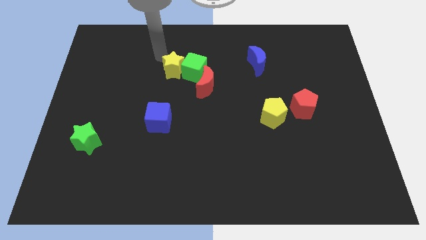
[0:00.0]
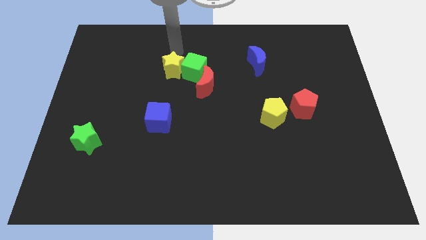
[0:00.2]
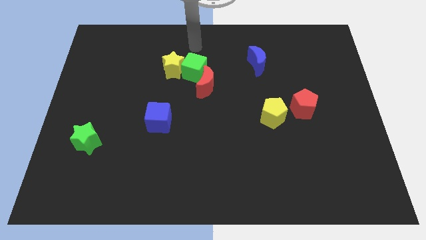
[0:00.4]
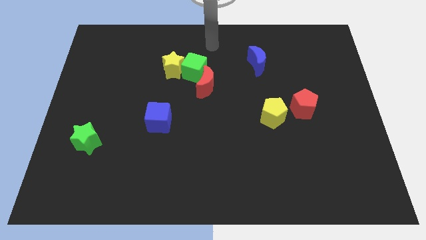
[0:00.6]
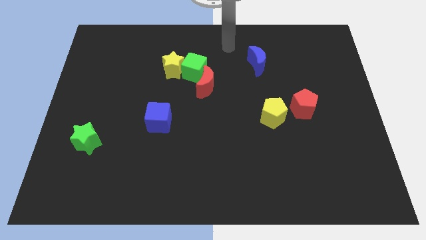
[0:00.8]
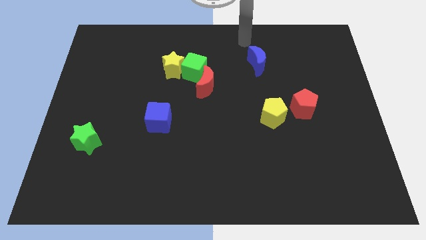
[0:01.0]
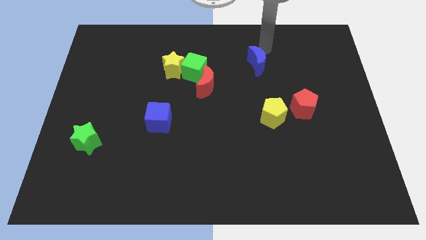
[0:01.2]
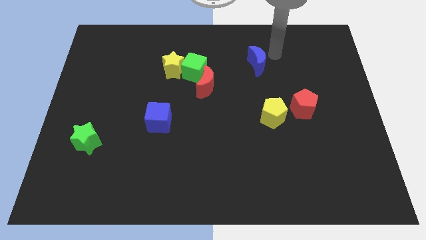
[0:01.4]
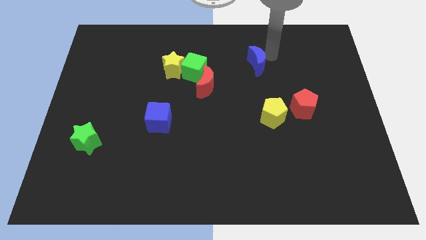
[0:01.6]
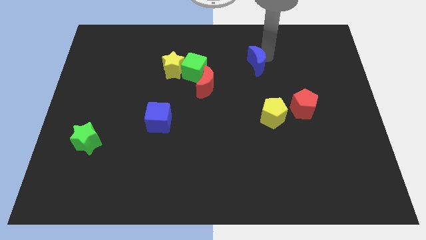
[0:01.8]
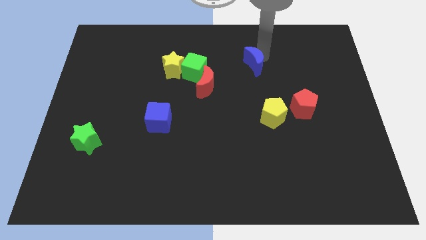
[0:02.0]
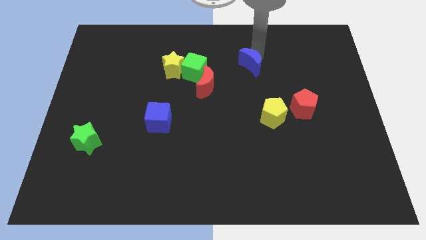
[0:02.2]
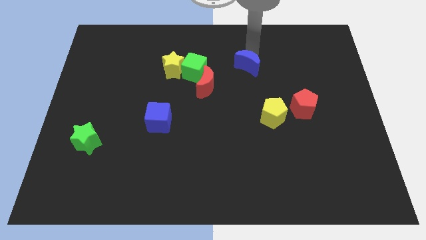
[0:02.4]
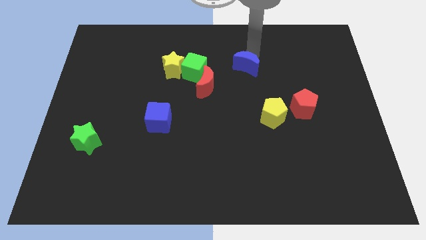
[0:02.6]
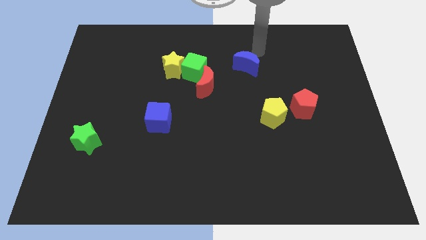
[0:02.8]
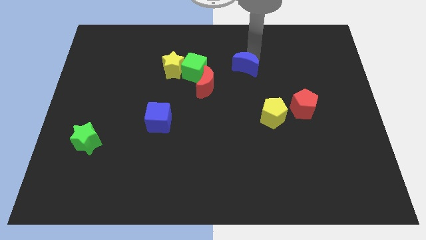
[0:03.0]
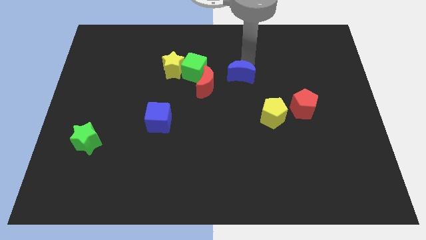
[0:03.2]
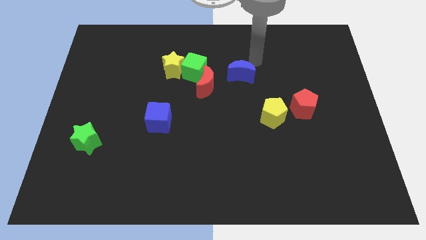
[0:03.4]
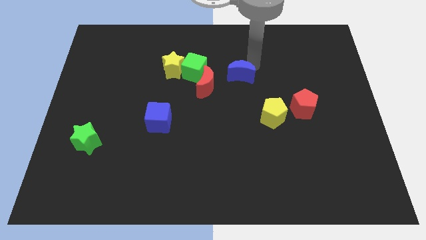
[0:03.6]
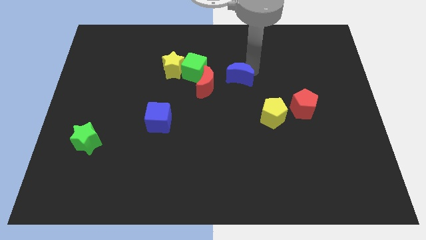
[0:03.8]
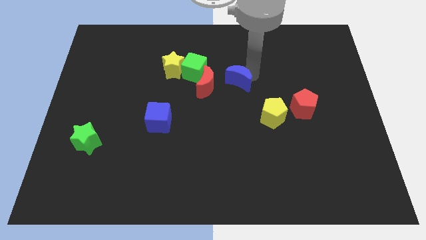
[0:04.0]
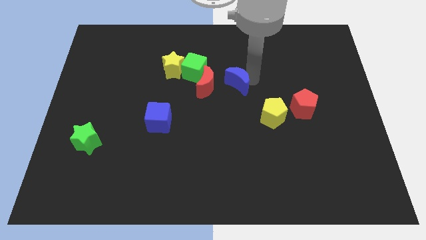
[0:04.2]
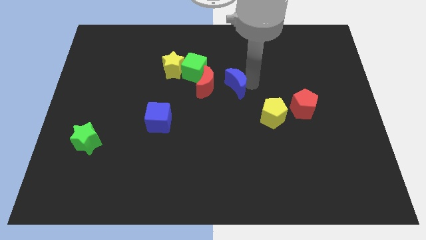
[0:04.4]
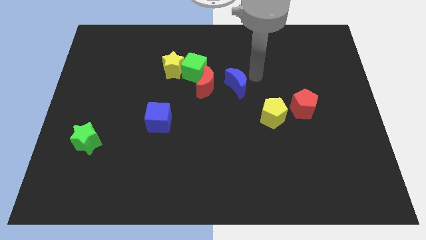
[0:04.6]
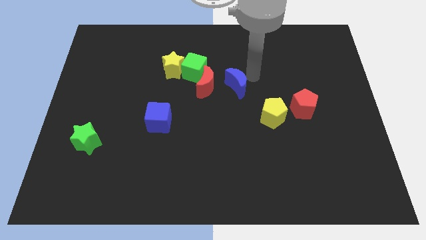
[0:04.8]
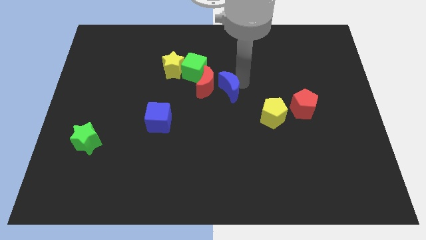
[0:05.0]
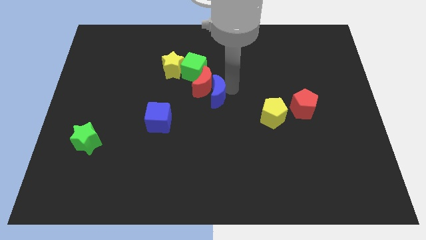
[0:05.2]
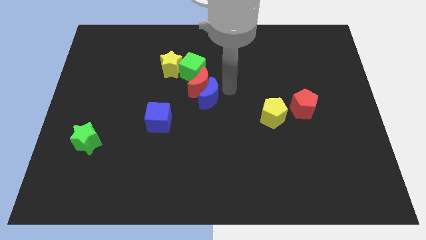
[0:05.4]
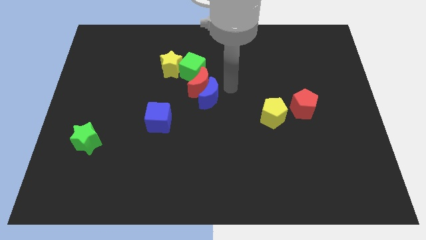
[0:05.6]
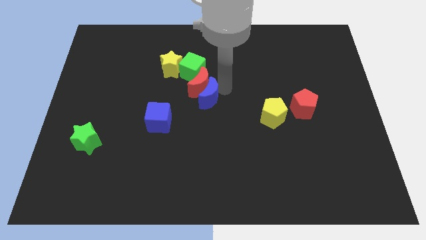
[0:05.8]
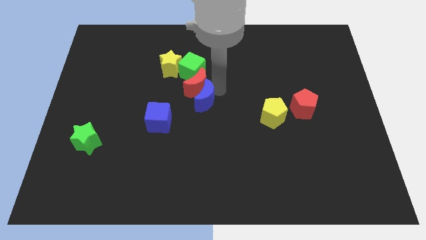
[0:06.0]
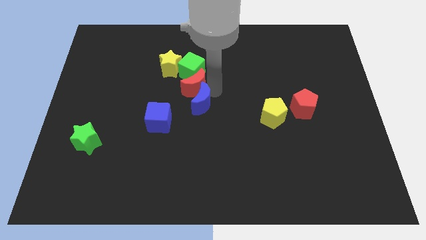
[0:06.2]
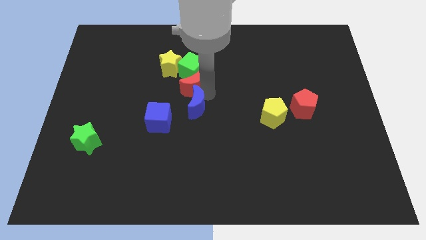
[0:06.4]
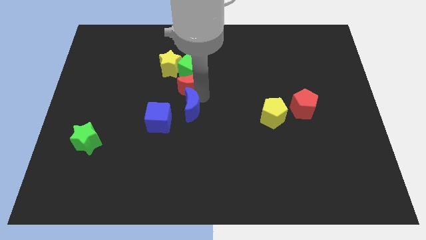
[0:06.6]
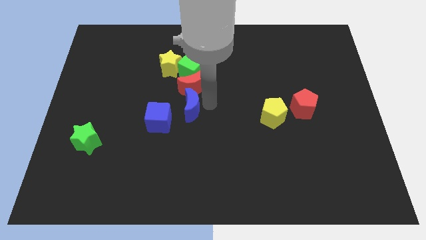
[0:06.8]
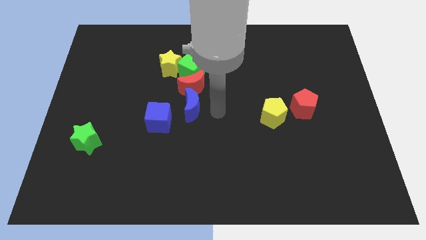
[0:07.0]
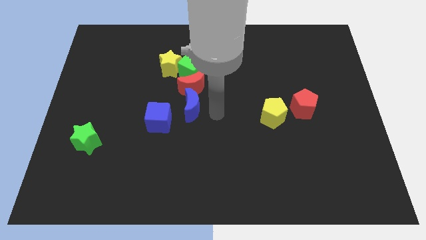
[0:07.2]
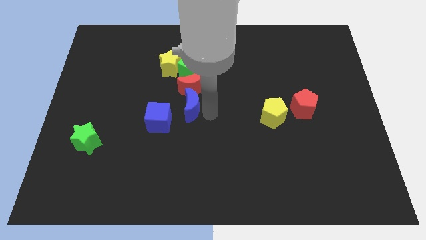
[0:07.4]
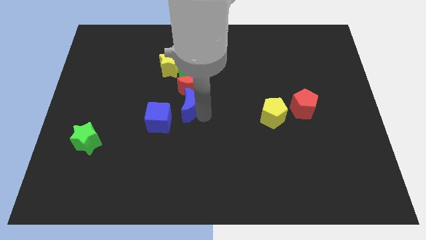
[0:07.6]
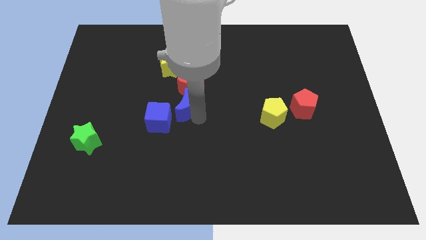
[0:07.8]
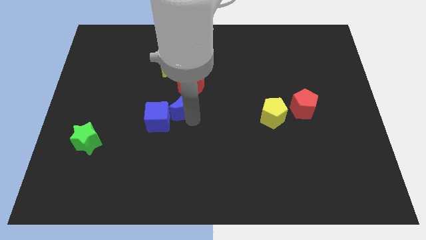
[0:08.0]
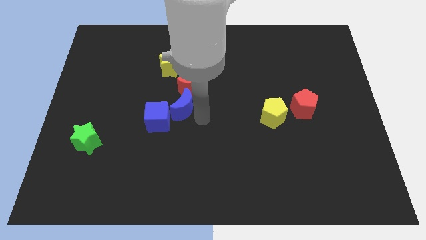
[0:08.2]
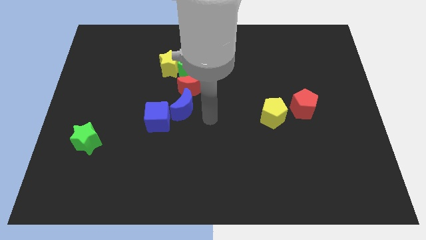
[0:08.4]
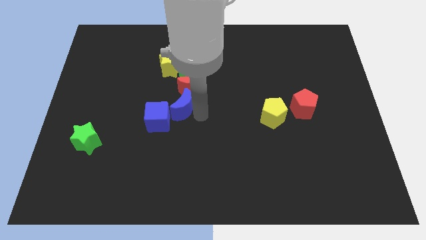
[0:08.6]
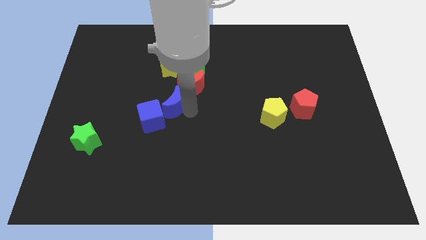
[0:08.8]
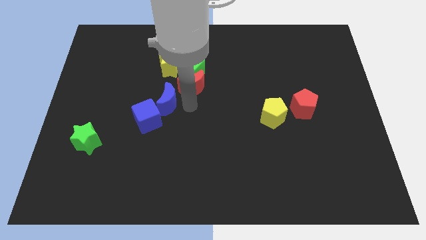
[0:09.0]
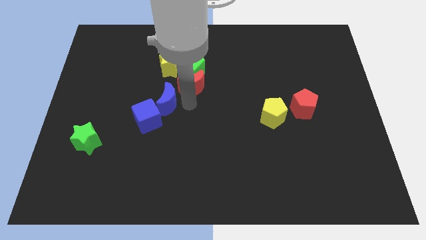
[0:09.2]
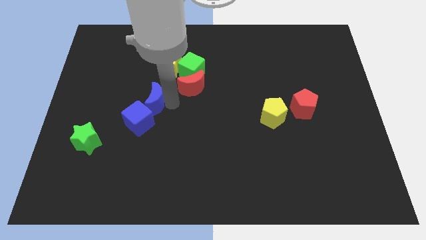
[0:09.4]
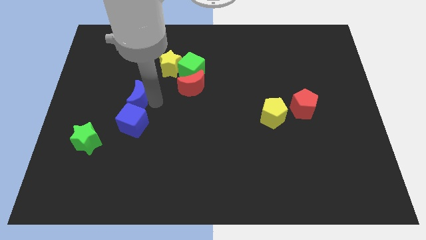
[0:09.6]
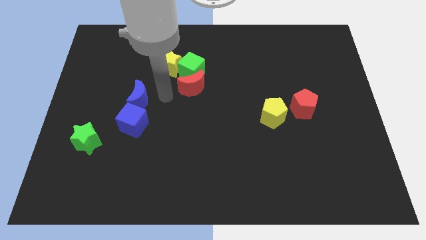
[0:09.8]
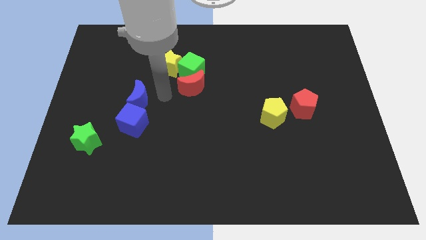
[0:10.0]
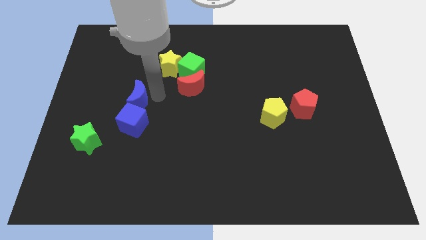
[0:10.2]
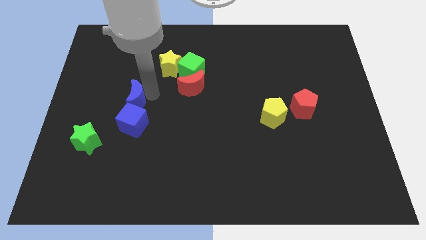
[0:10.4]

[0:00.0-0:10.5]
put the blue moon to the top left of the blue cube

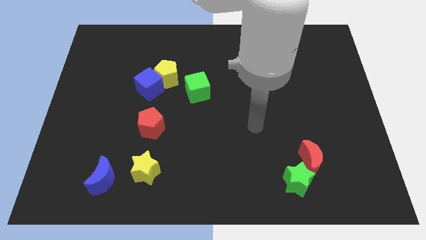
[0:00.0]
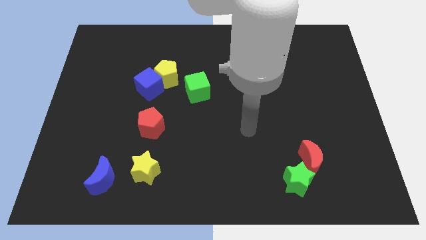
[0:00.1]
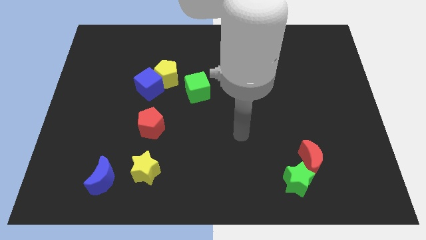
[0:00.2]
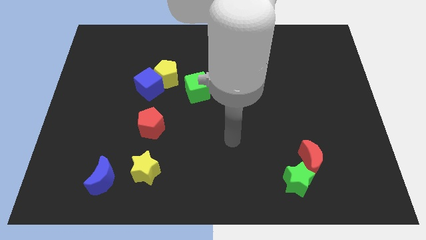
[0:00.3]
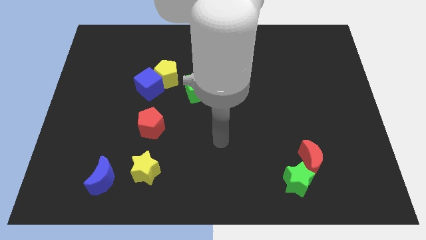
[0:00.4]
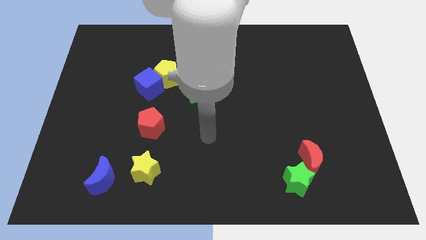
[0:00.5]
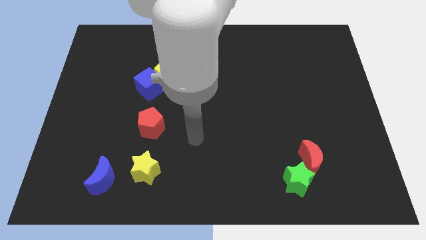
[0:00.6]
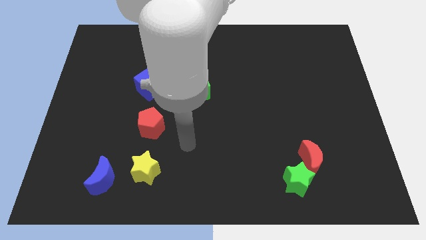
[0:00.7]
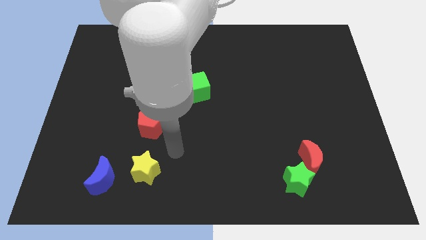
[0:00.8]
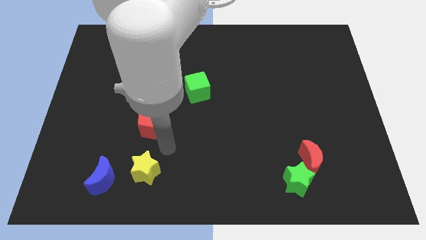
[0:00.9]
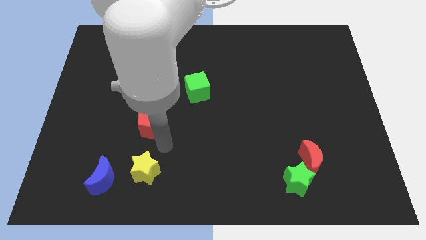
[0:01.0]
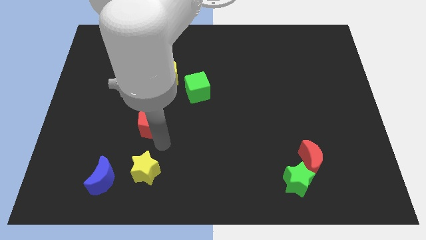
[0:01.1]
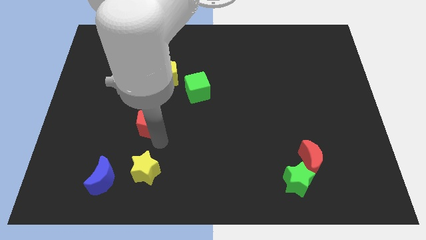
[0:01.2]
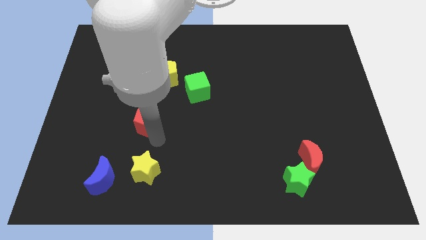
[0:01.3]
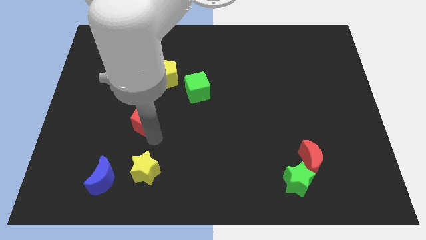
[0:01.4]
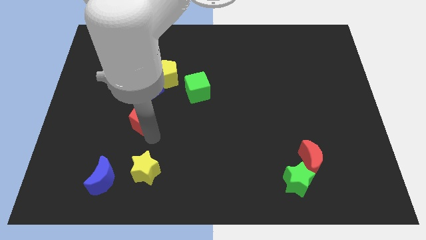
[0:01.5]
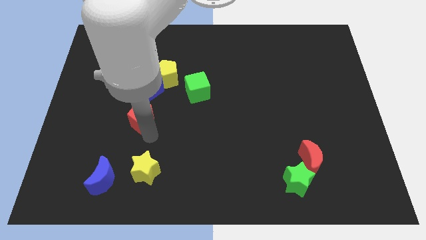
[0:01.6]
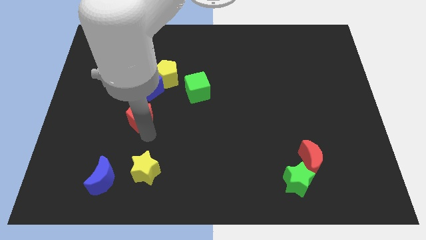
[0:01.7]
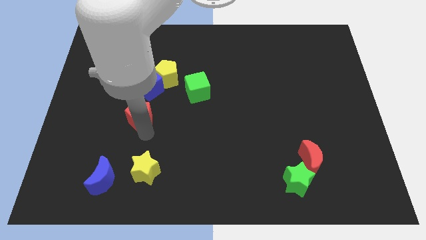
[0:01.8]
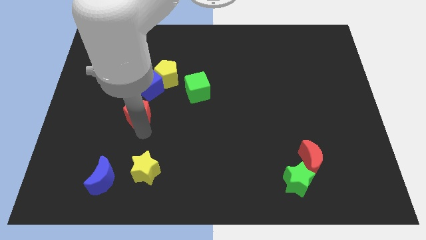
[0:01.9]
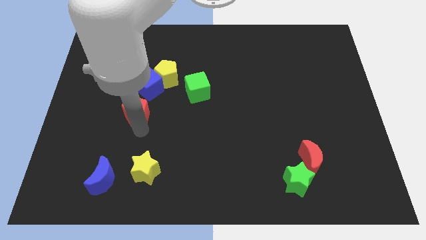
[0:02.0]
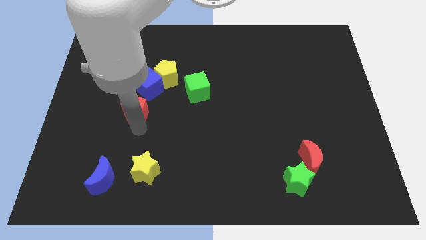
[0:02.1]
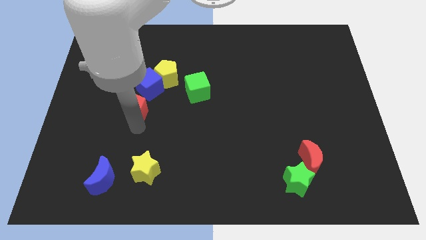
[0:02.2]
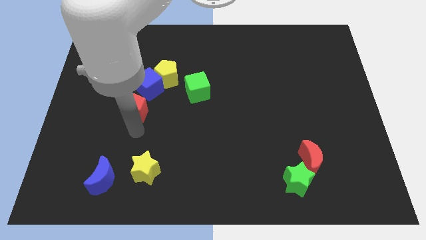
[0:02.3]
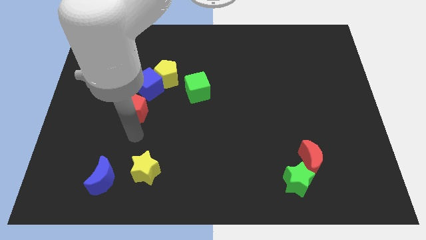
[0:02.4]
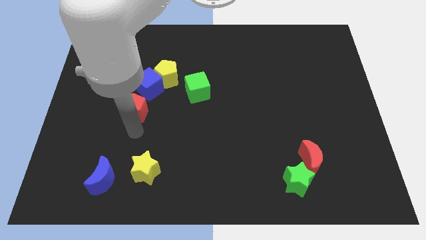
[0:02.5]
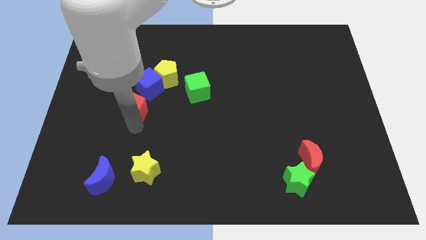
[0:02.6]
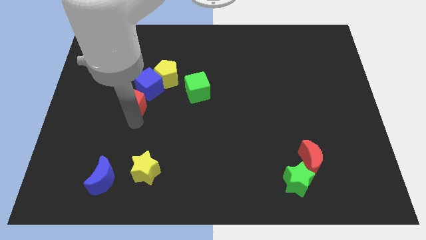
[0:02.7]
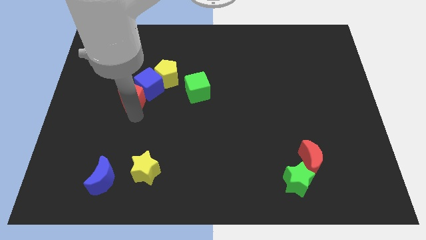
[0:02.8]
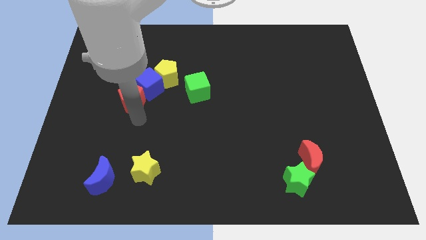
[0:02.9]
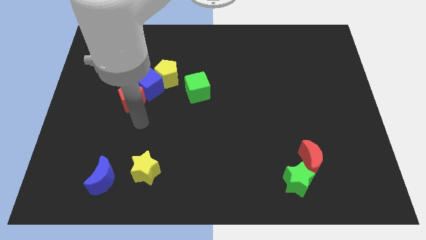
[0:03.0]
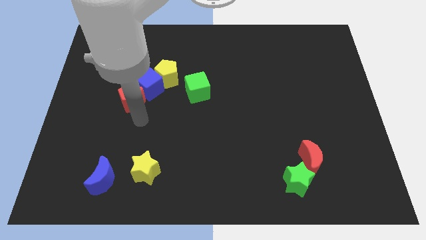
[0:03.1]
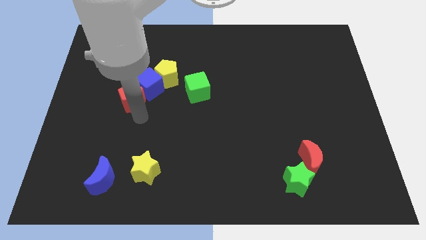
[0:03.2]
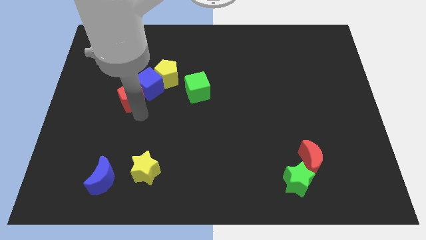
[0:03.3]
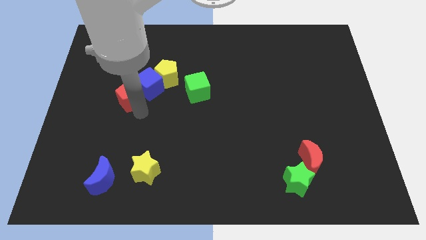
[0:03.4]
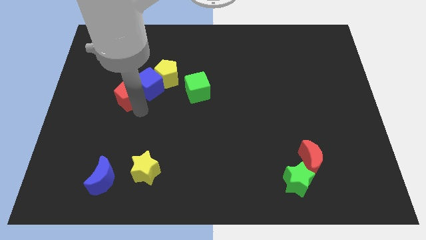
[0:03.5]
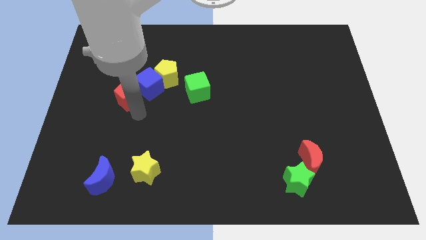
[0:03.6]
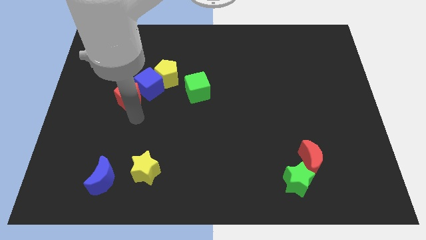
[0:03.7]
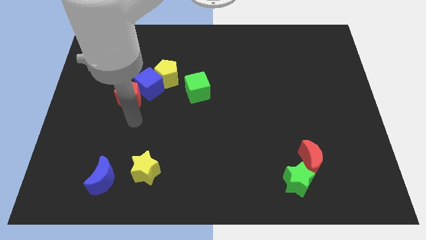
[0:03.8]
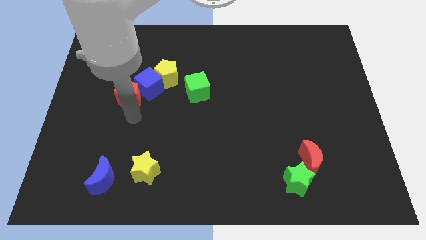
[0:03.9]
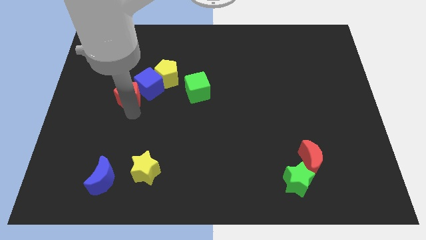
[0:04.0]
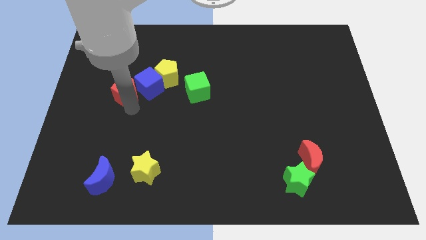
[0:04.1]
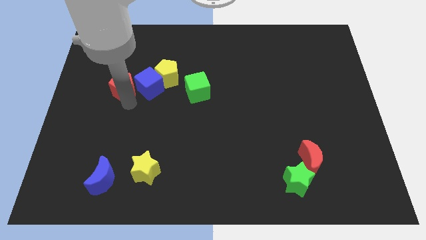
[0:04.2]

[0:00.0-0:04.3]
slide the red pentagon to the left side of the yellow pentagon
